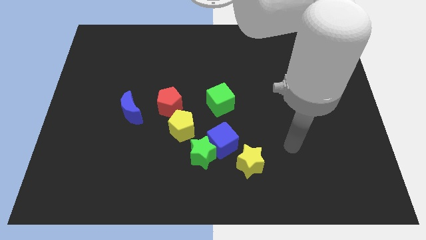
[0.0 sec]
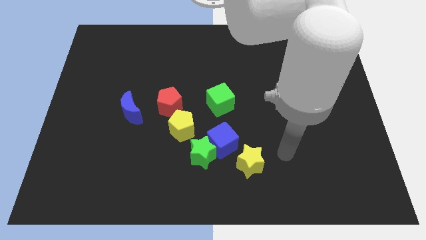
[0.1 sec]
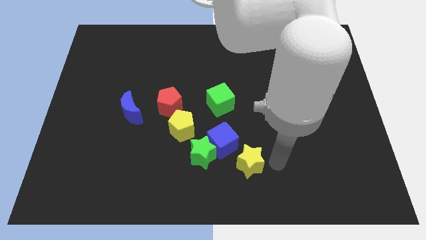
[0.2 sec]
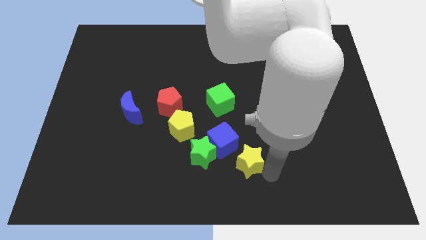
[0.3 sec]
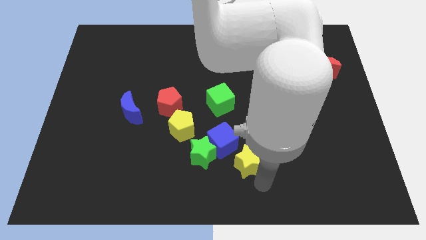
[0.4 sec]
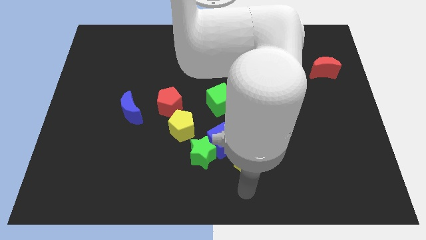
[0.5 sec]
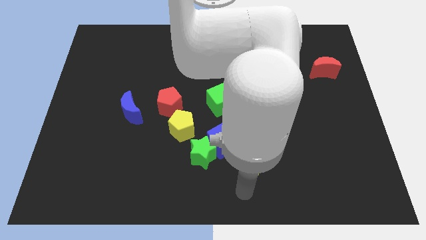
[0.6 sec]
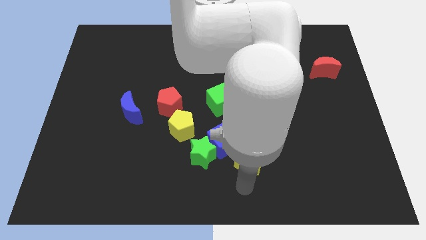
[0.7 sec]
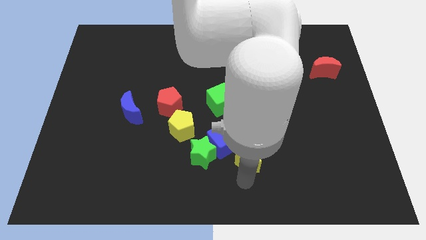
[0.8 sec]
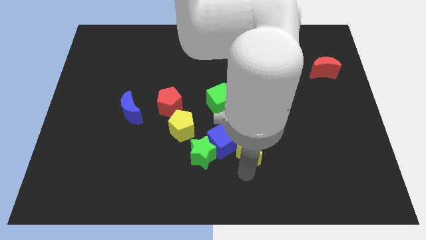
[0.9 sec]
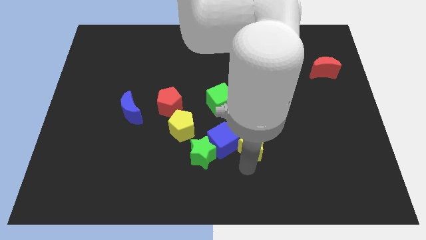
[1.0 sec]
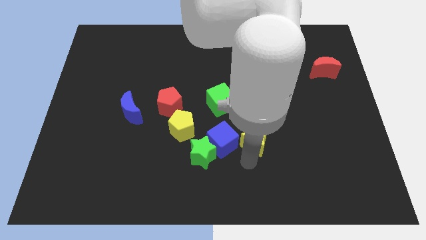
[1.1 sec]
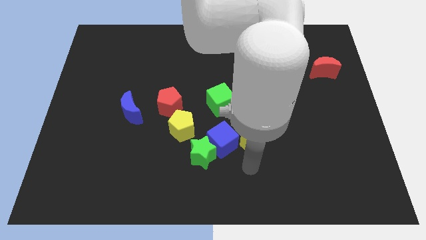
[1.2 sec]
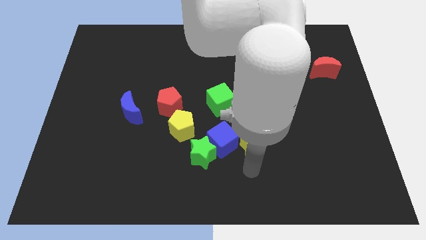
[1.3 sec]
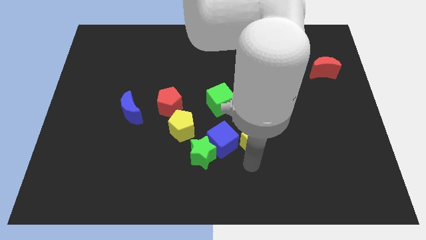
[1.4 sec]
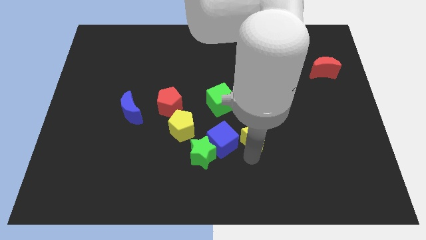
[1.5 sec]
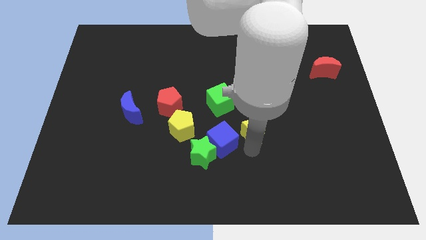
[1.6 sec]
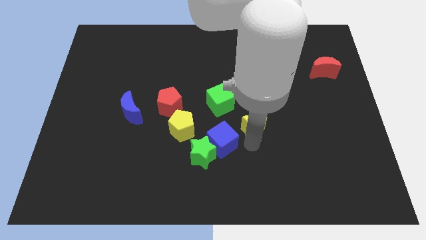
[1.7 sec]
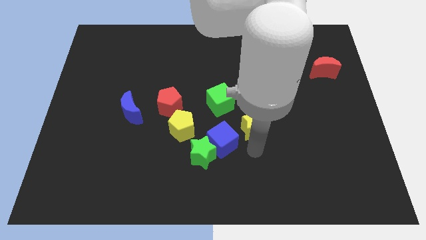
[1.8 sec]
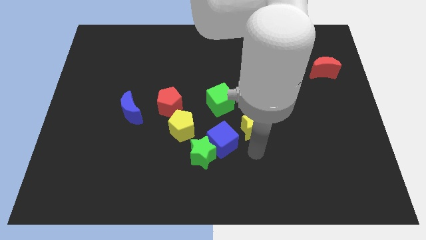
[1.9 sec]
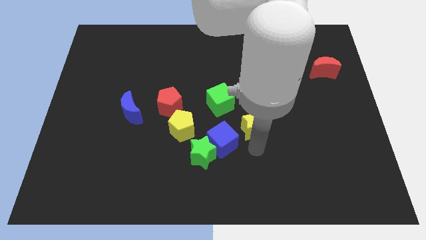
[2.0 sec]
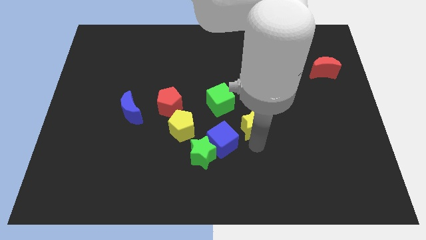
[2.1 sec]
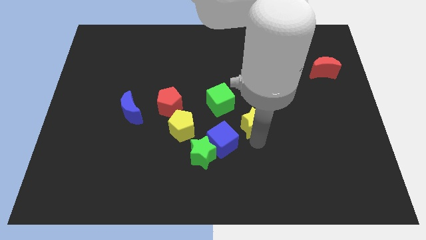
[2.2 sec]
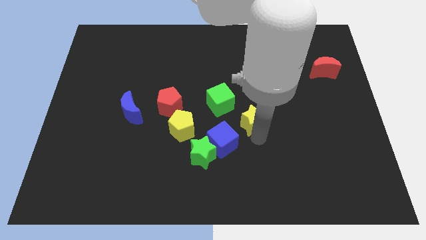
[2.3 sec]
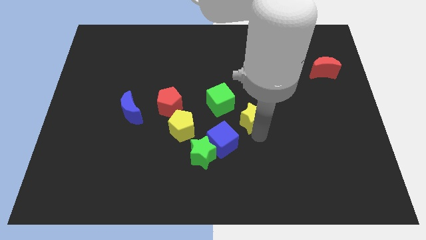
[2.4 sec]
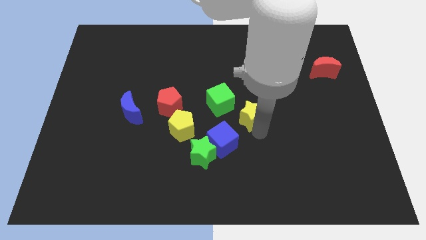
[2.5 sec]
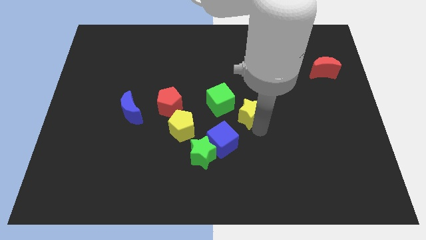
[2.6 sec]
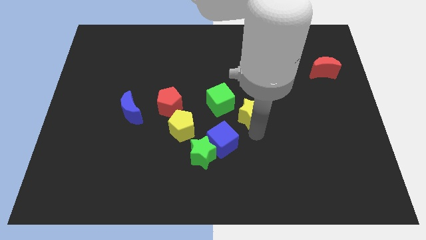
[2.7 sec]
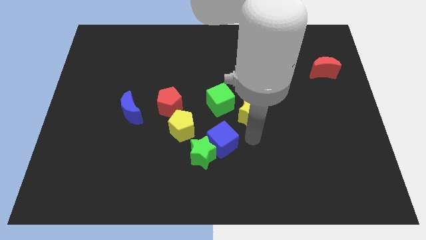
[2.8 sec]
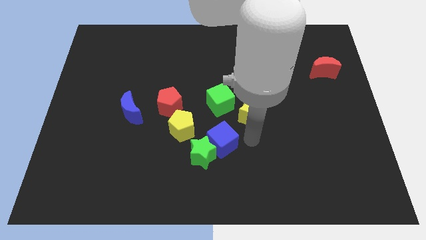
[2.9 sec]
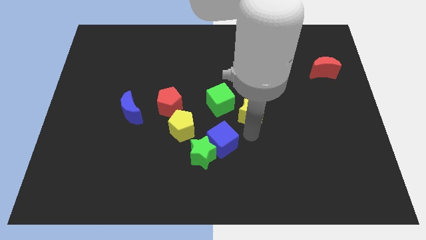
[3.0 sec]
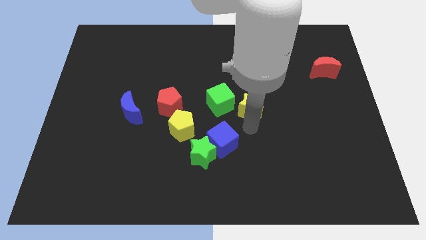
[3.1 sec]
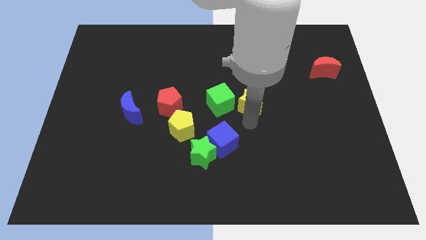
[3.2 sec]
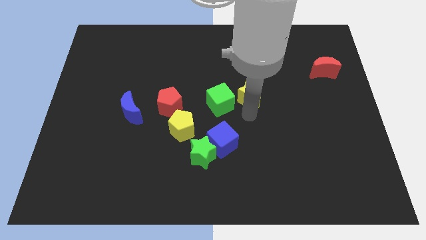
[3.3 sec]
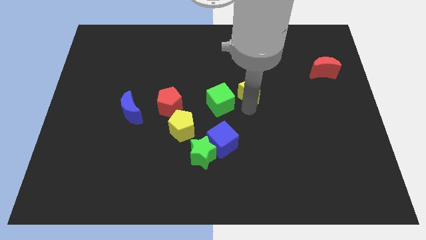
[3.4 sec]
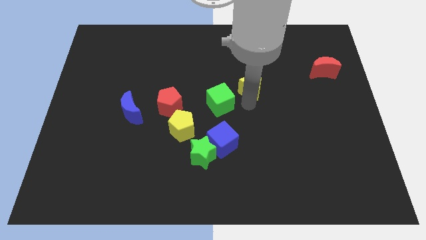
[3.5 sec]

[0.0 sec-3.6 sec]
slide the yellow star up

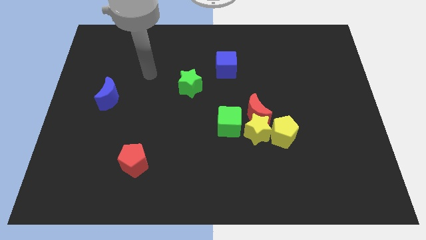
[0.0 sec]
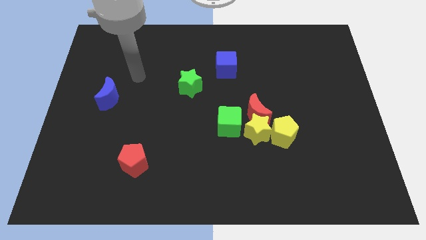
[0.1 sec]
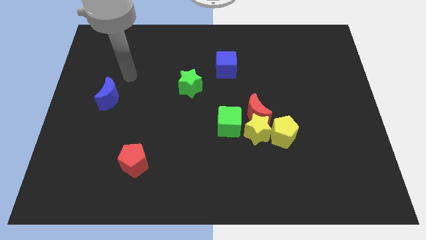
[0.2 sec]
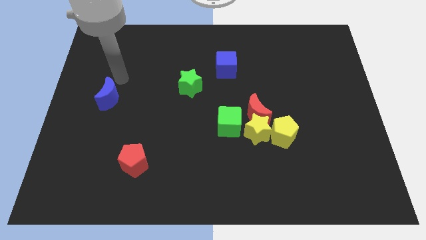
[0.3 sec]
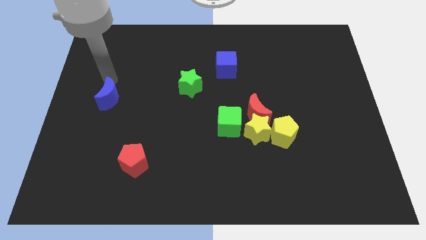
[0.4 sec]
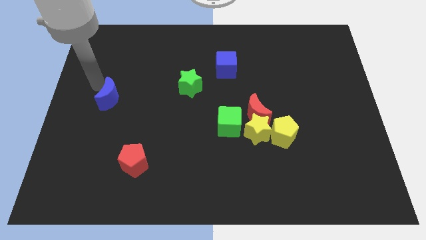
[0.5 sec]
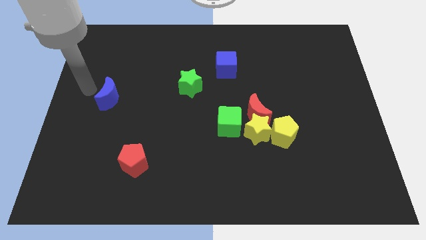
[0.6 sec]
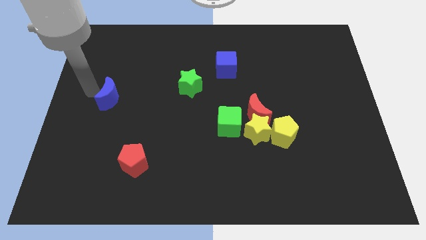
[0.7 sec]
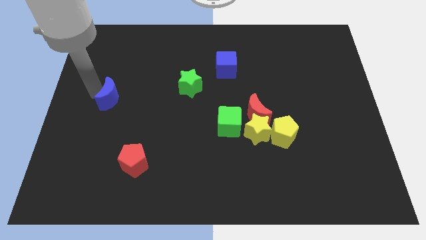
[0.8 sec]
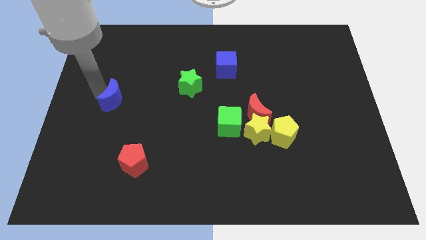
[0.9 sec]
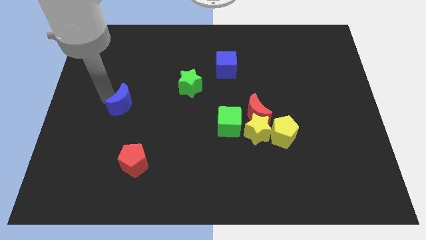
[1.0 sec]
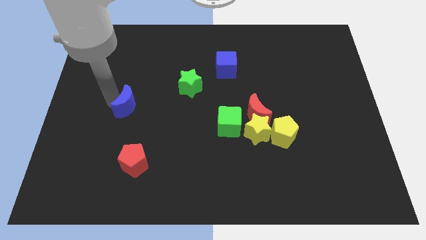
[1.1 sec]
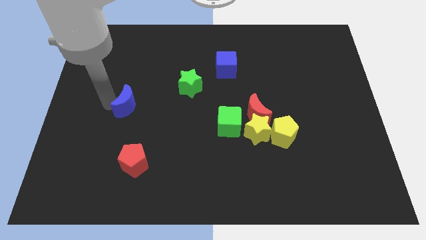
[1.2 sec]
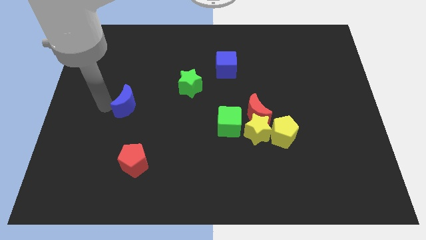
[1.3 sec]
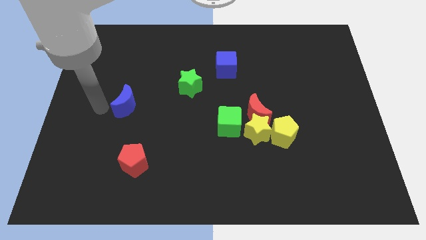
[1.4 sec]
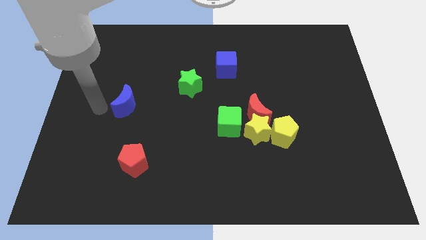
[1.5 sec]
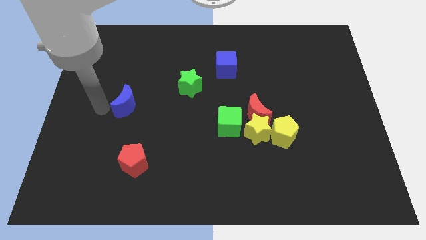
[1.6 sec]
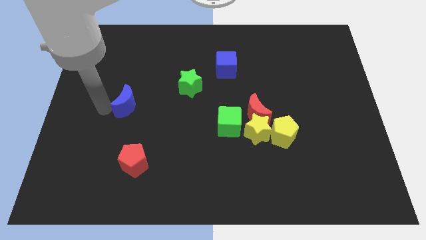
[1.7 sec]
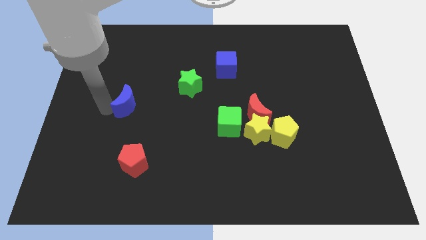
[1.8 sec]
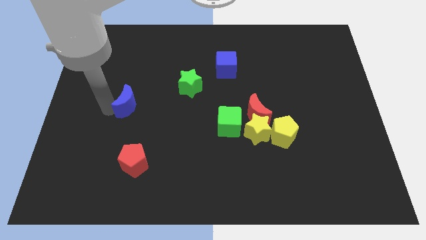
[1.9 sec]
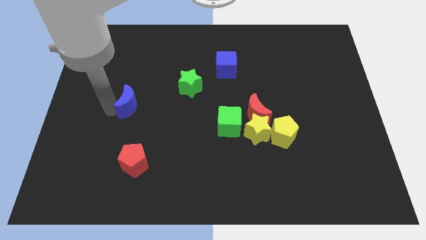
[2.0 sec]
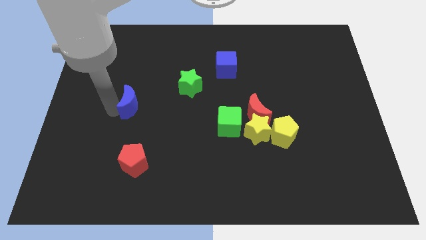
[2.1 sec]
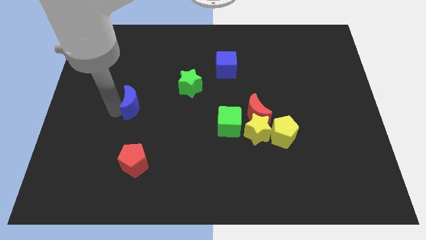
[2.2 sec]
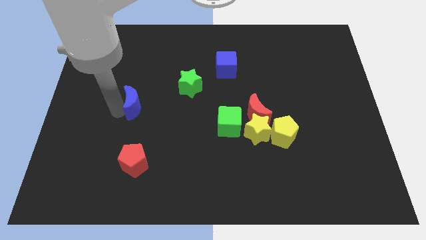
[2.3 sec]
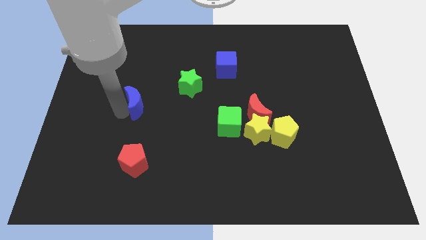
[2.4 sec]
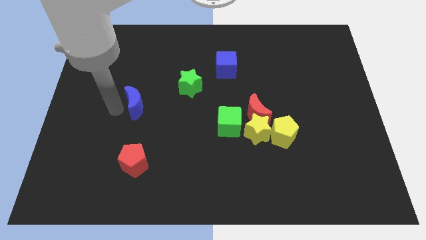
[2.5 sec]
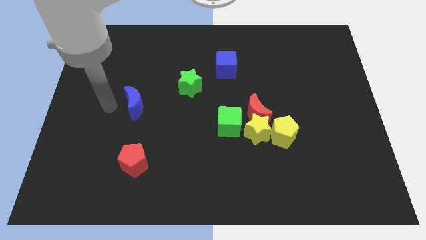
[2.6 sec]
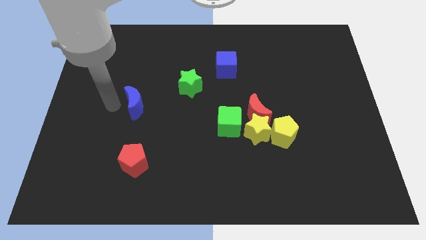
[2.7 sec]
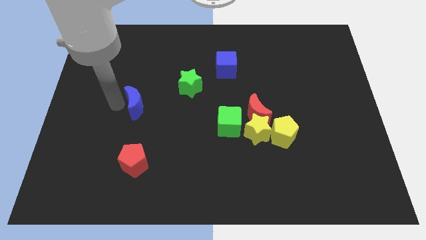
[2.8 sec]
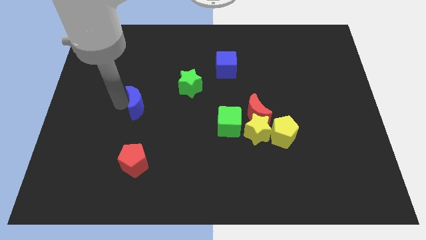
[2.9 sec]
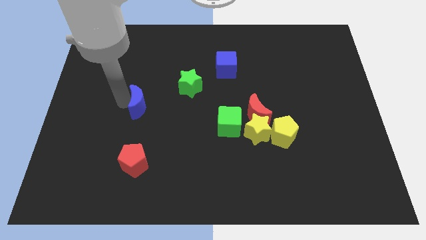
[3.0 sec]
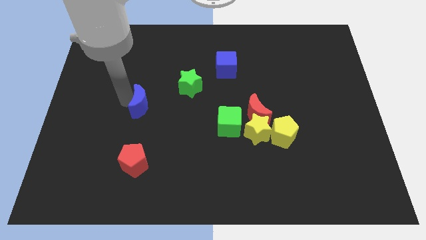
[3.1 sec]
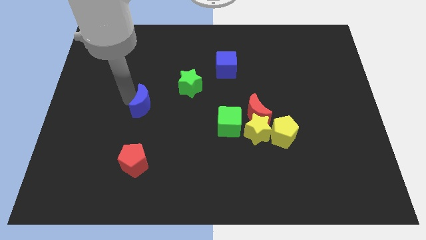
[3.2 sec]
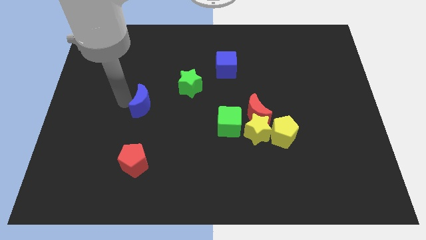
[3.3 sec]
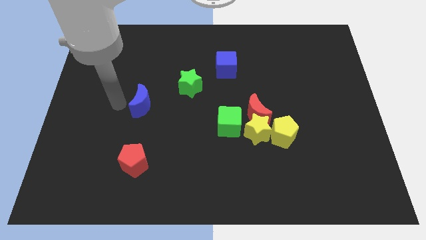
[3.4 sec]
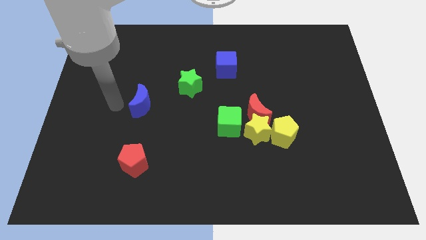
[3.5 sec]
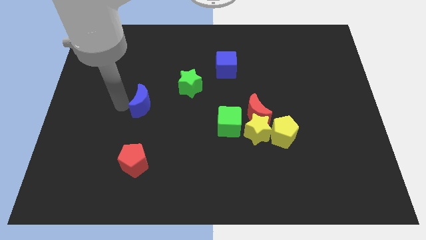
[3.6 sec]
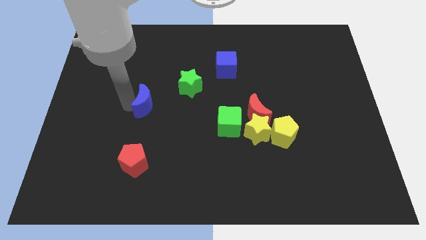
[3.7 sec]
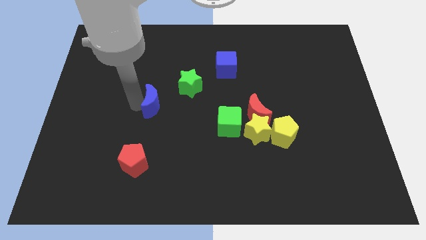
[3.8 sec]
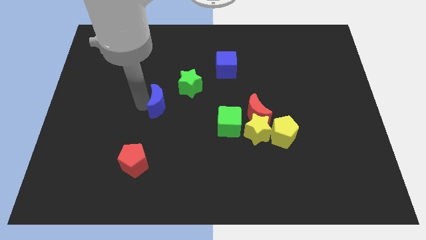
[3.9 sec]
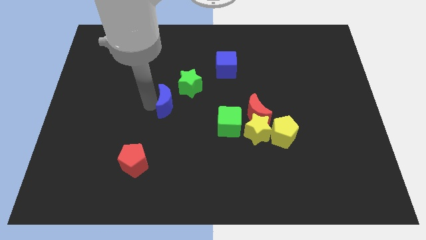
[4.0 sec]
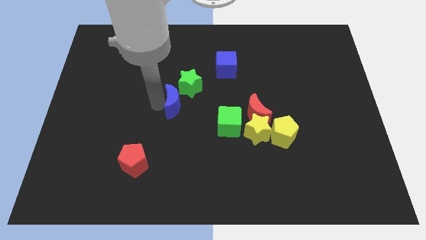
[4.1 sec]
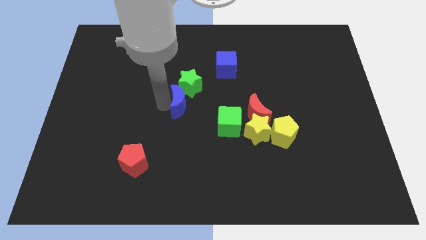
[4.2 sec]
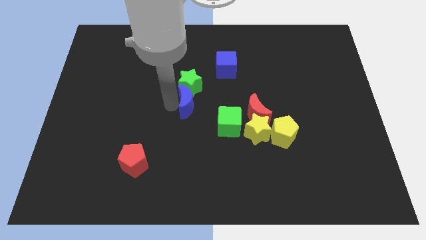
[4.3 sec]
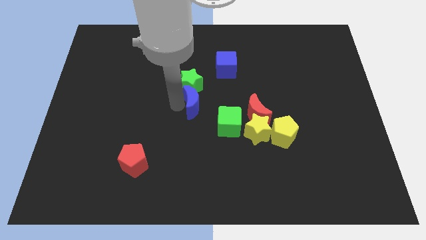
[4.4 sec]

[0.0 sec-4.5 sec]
push the blue moon right
